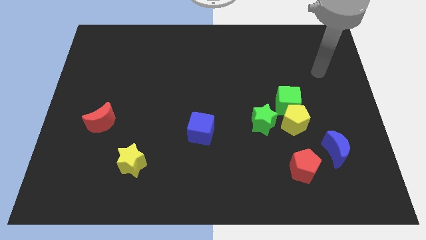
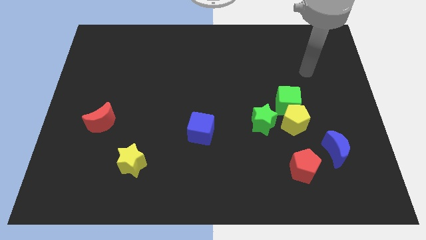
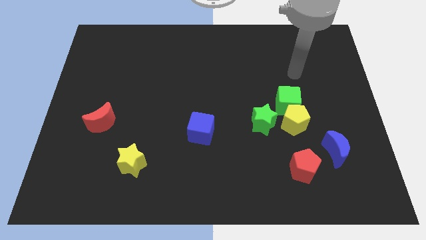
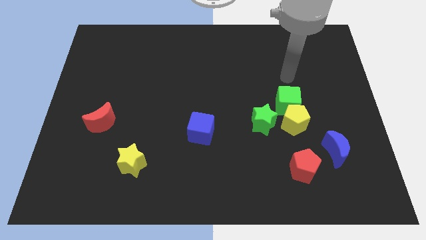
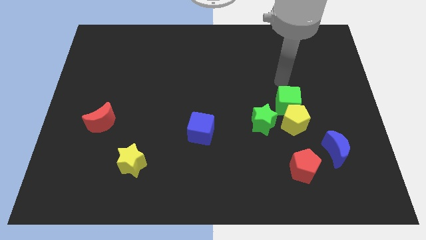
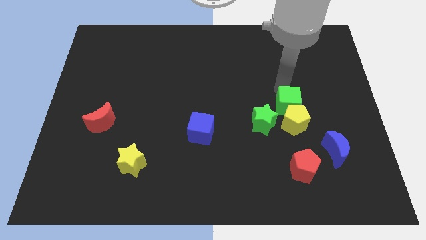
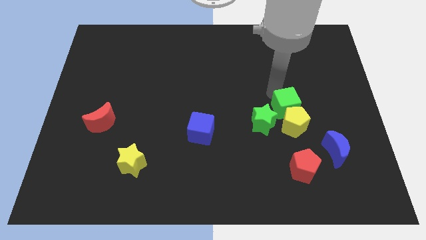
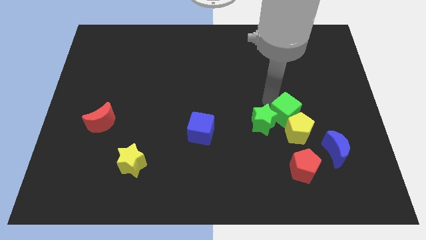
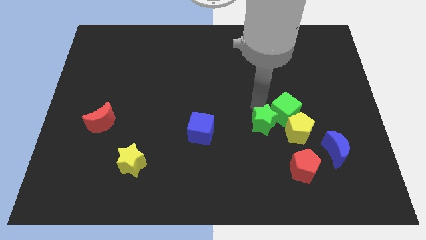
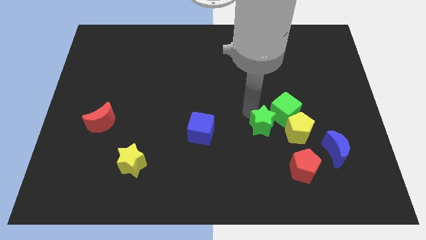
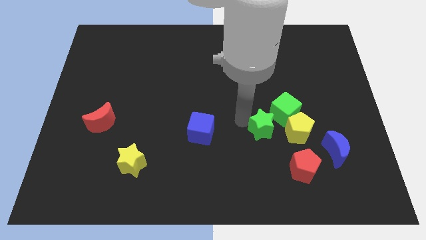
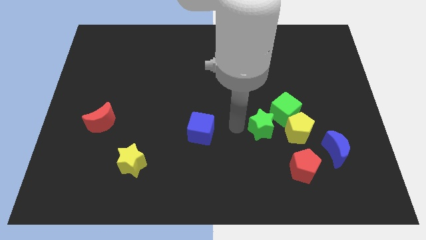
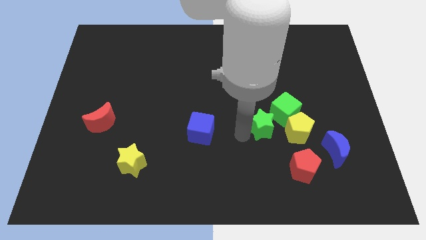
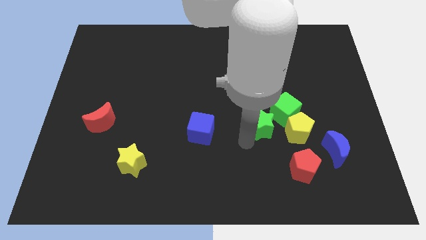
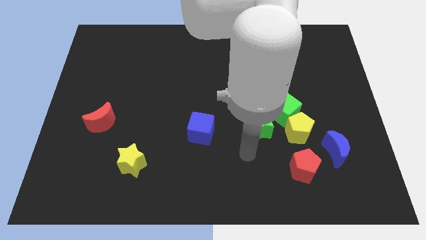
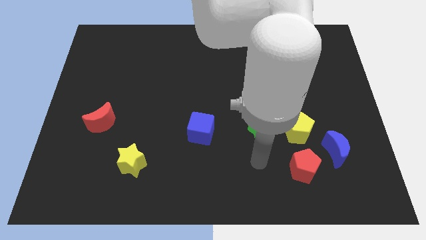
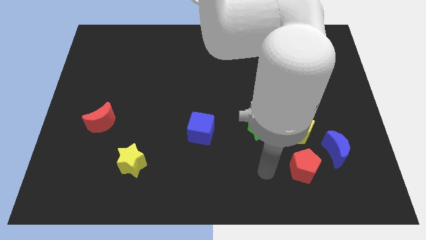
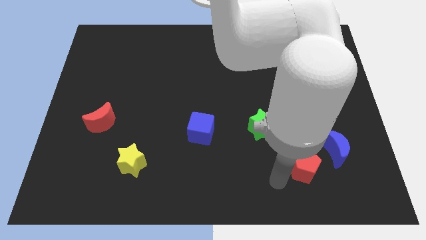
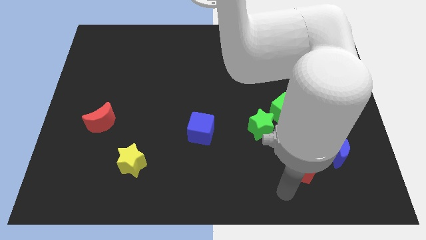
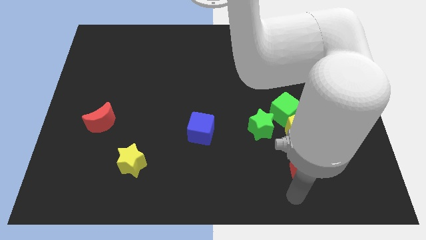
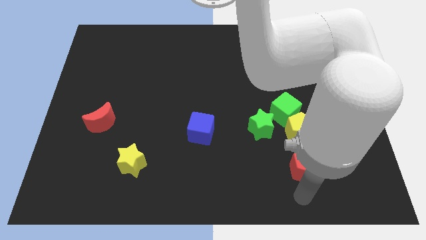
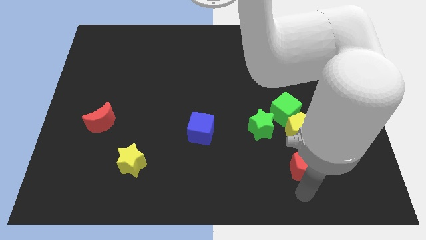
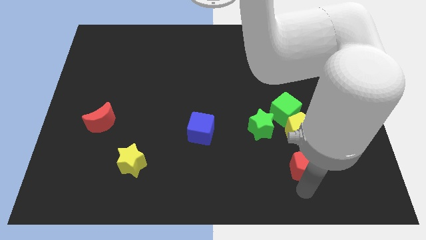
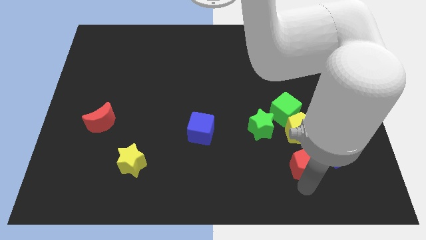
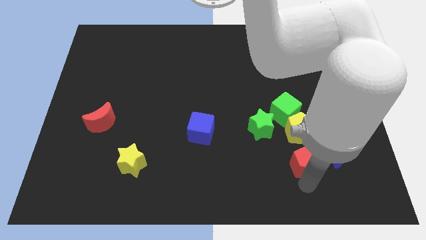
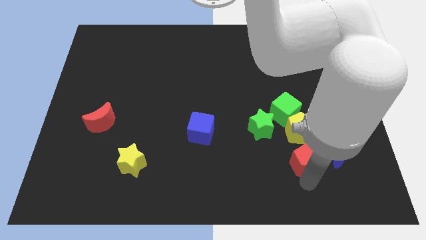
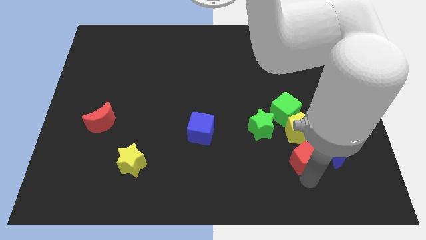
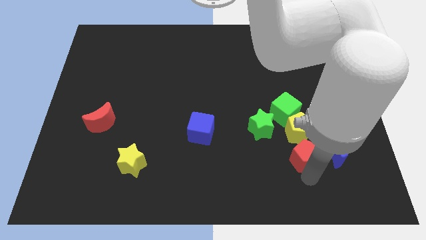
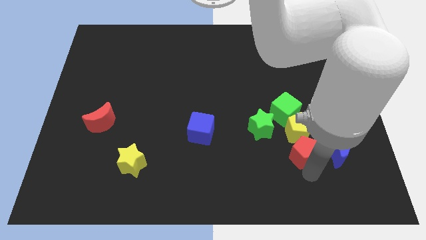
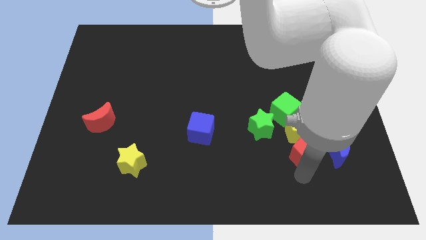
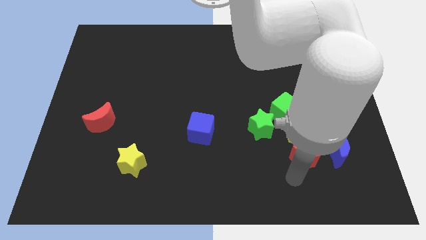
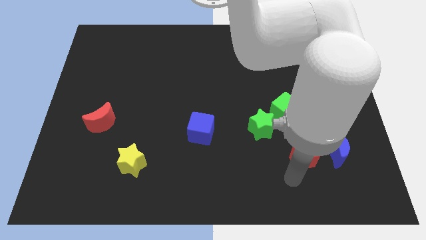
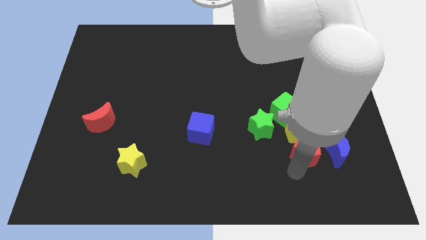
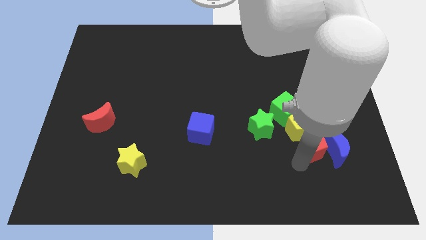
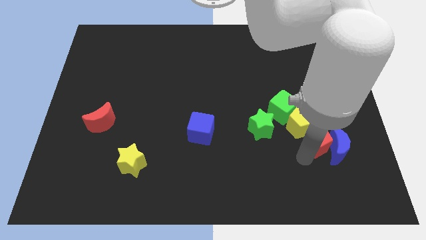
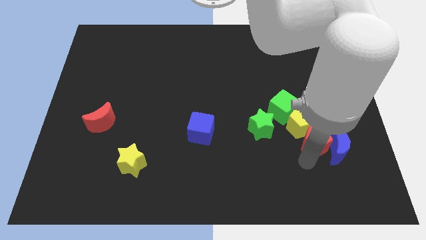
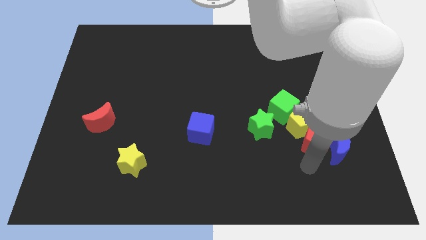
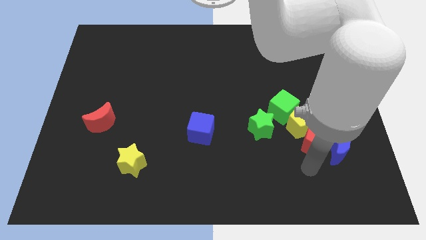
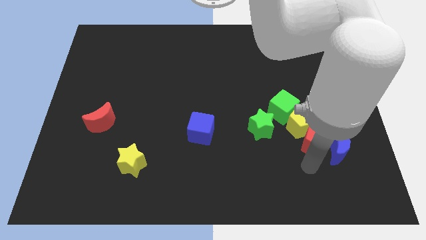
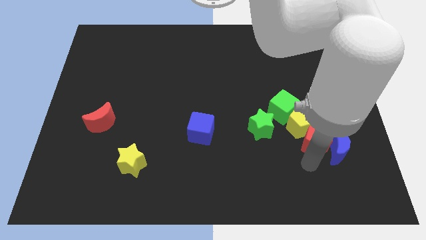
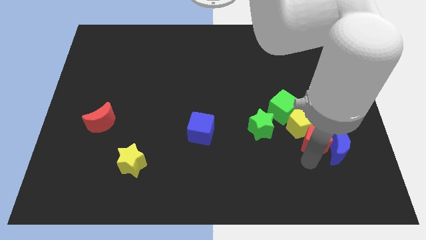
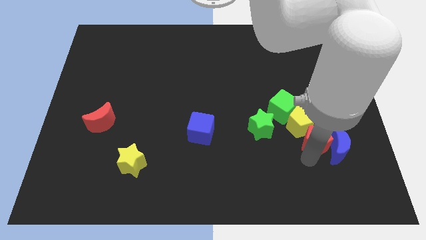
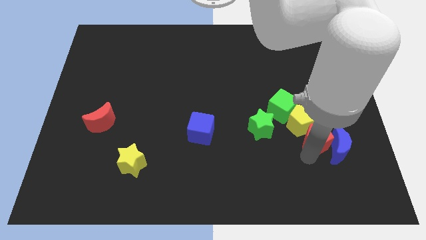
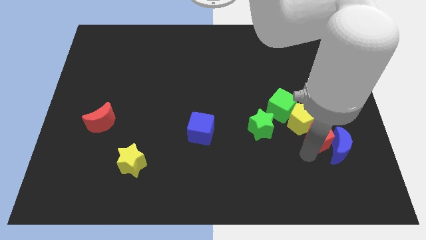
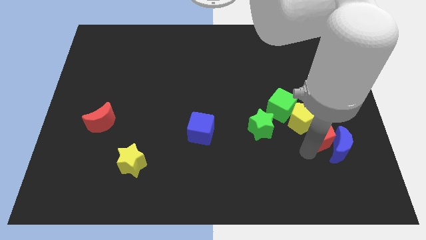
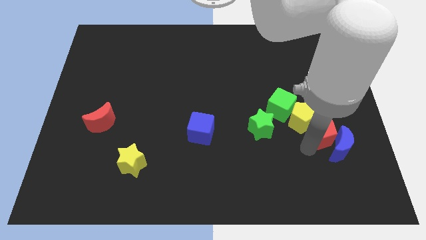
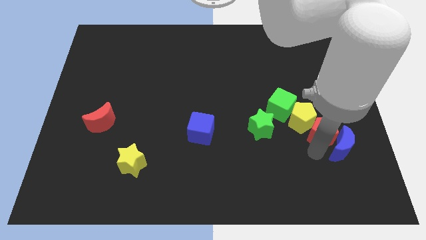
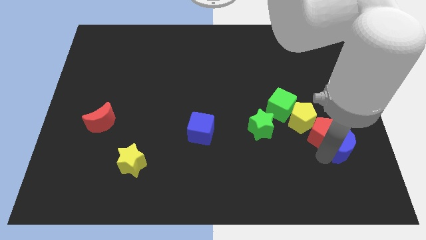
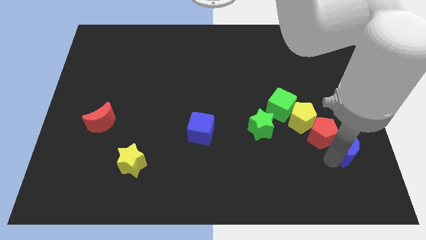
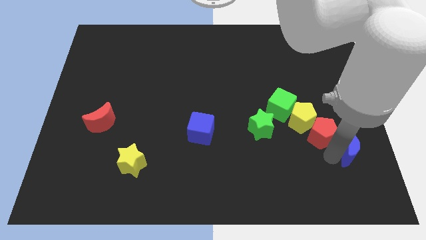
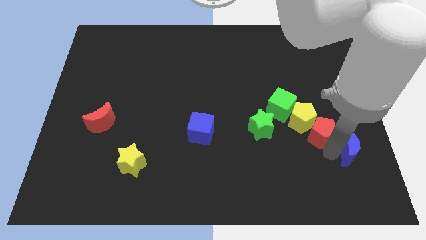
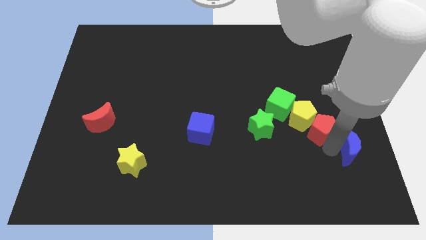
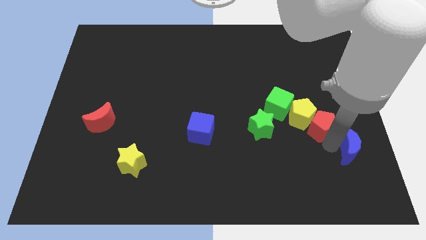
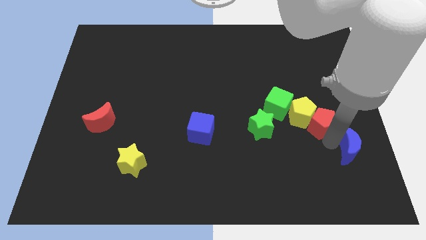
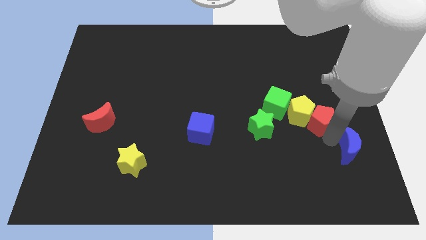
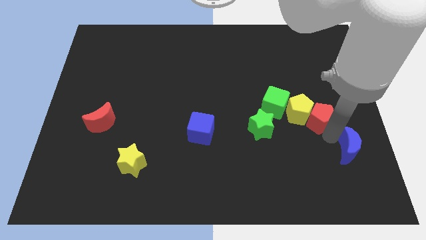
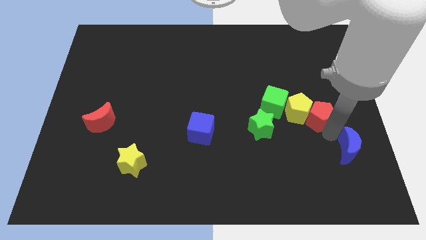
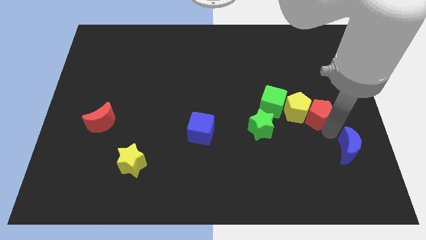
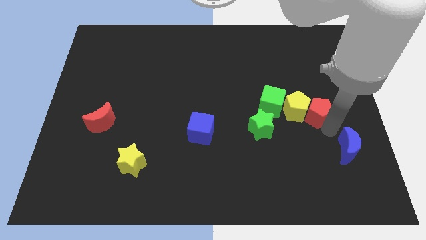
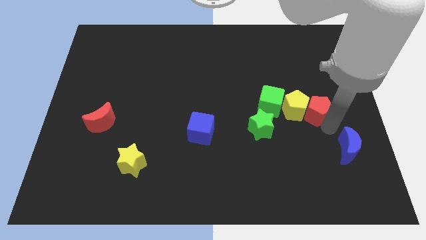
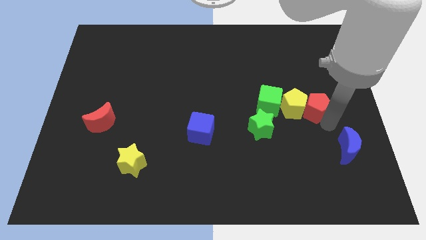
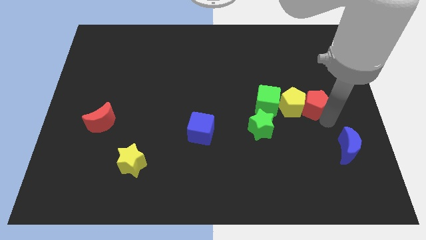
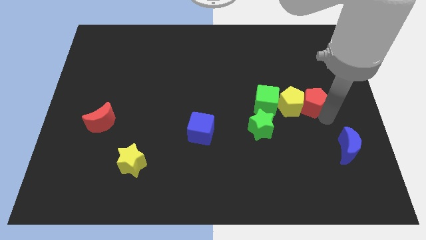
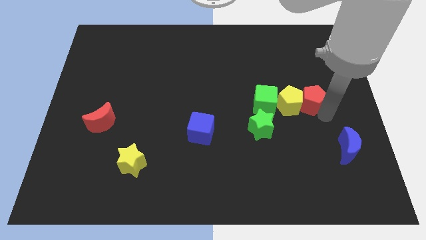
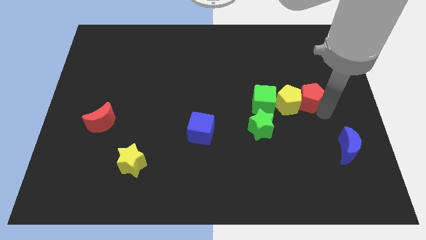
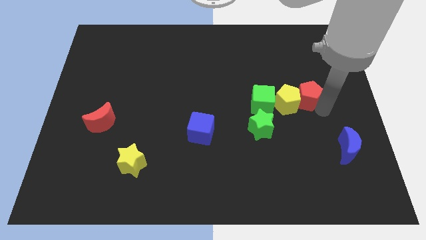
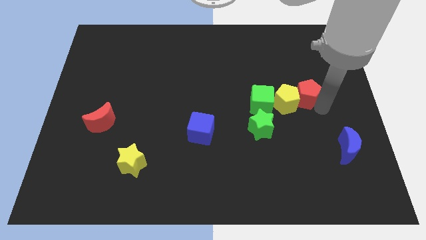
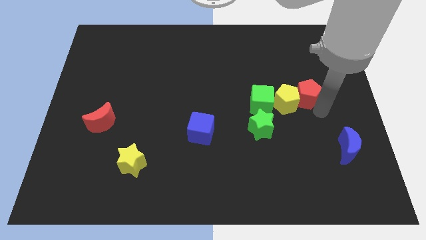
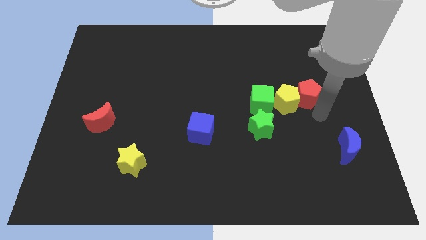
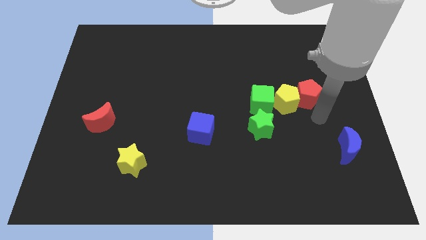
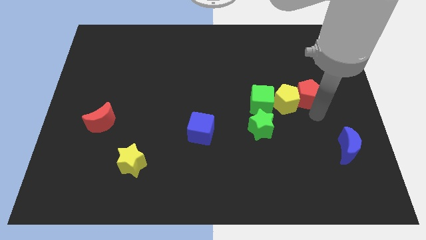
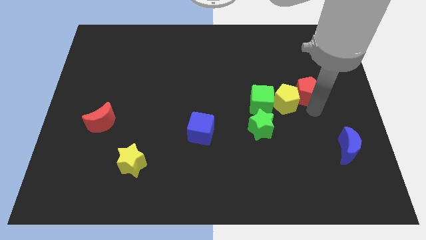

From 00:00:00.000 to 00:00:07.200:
push the red pentagon upwards

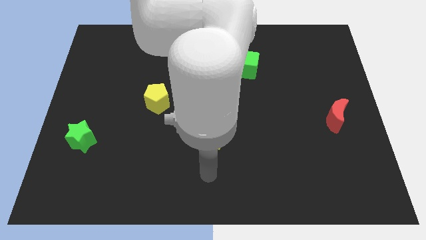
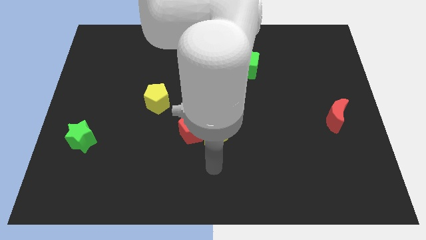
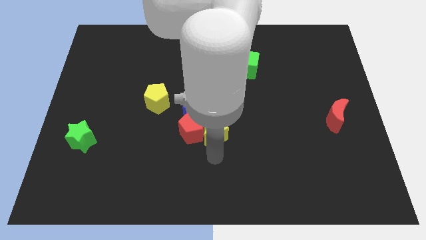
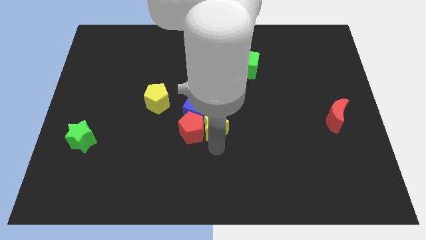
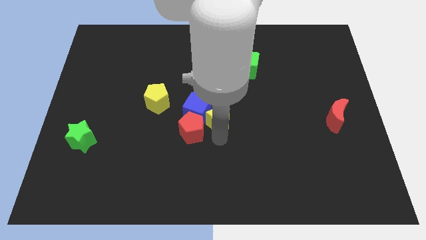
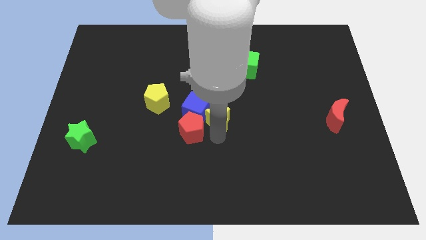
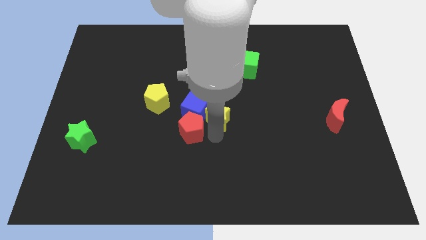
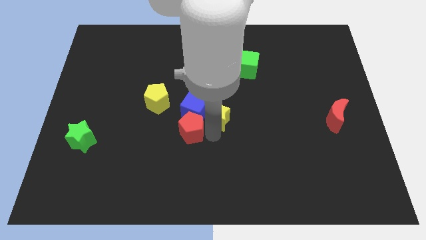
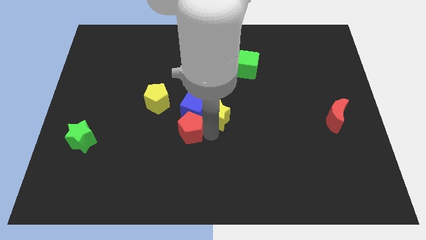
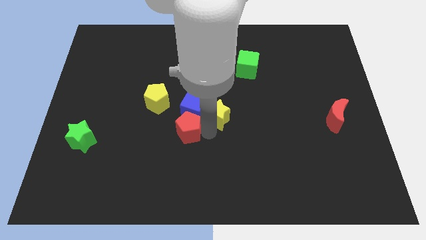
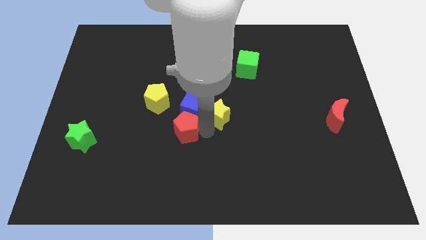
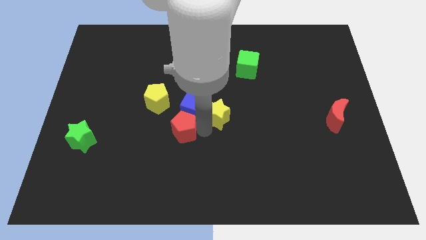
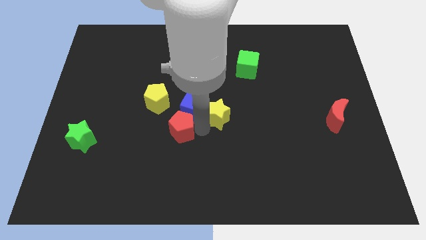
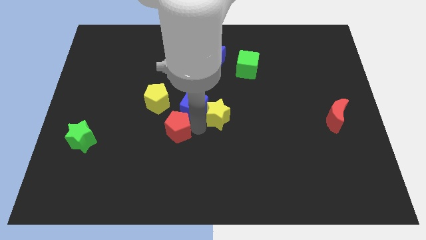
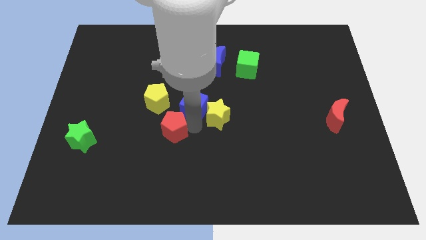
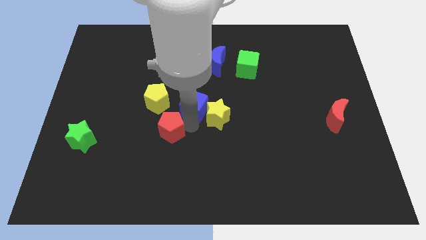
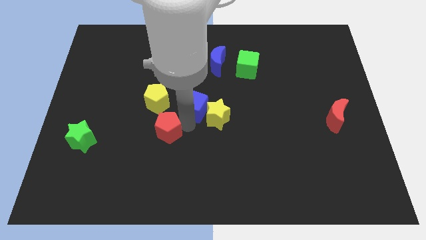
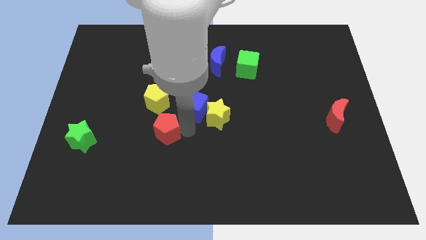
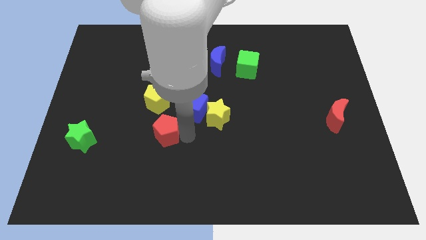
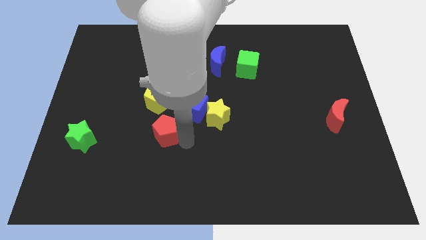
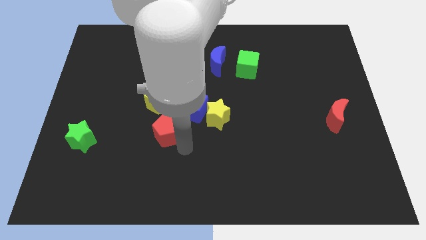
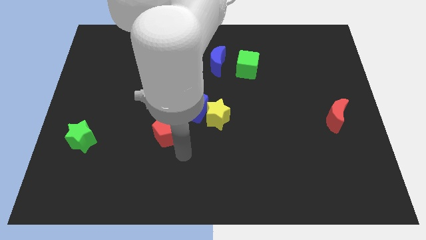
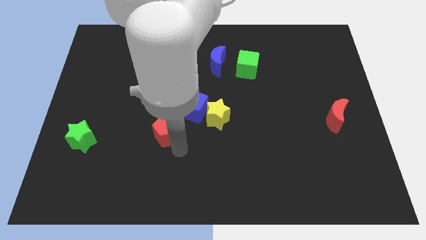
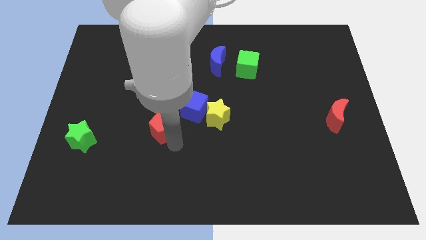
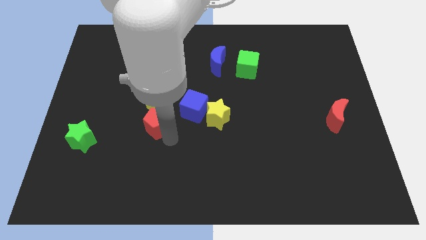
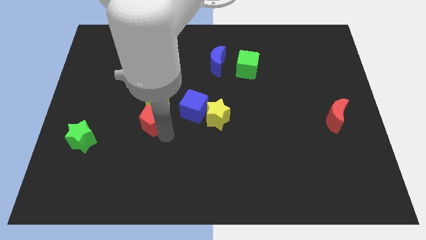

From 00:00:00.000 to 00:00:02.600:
slightly move the red pentagon upwards and to the left
